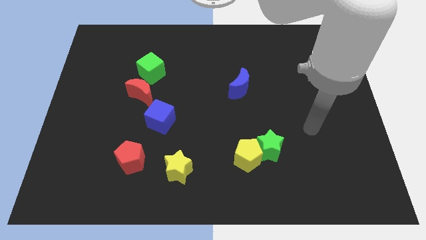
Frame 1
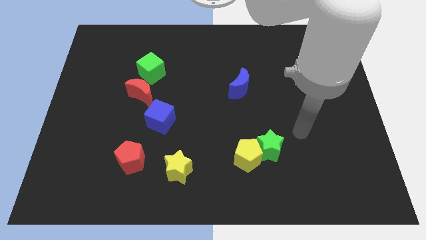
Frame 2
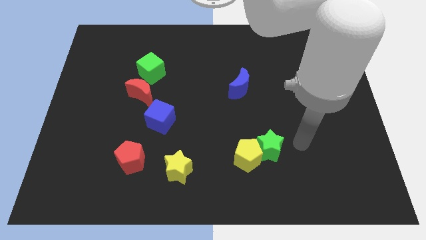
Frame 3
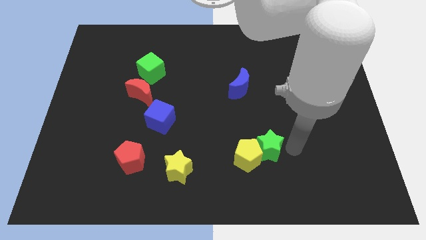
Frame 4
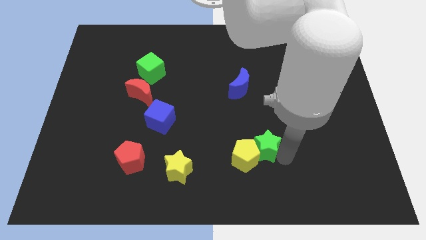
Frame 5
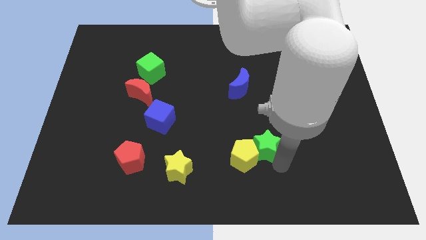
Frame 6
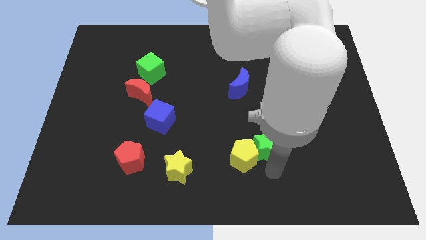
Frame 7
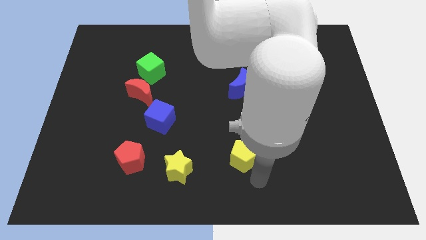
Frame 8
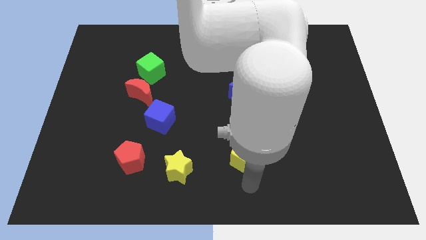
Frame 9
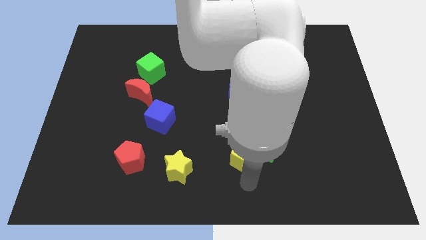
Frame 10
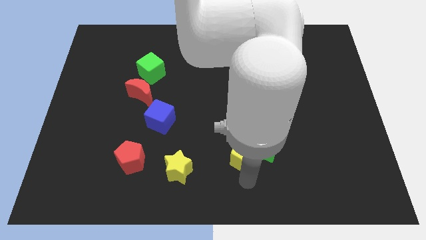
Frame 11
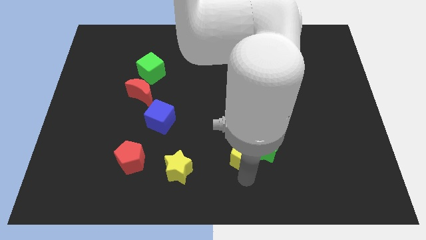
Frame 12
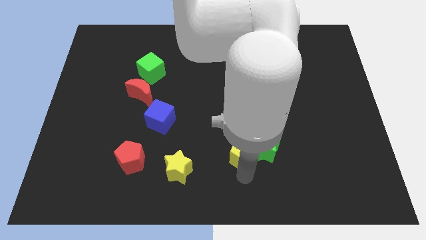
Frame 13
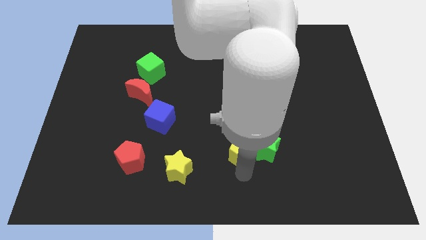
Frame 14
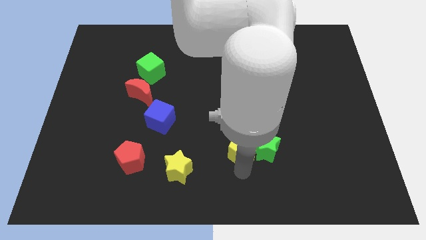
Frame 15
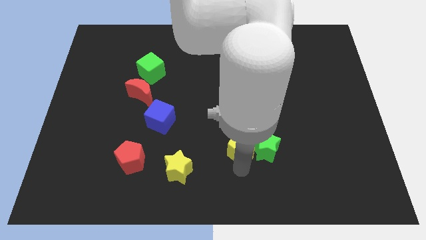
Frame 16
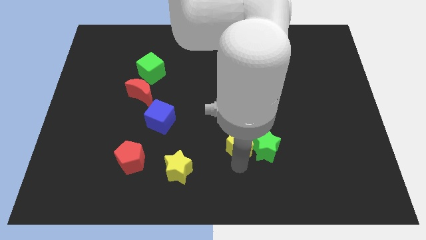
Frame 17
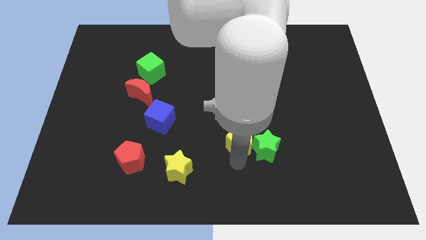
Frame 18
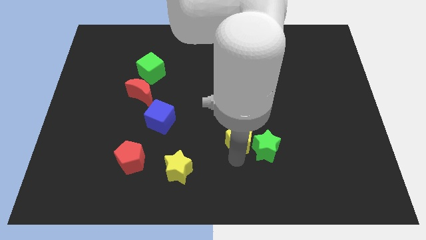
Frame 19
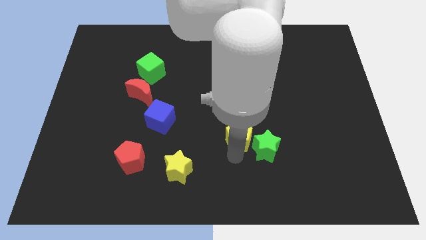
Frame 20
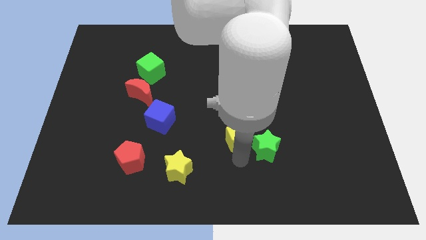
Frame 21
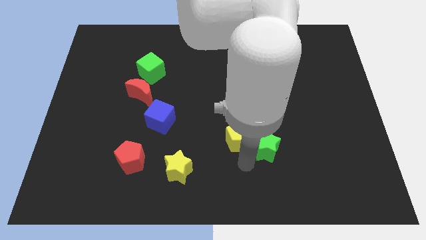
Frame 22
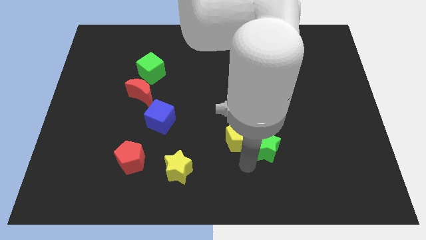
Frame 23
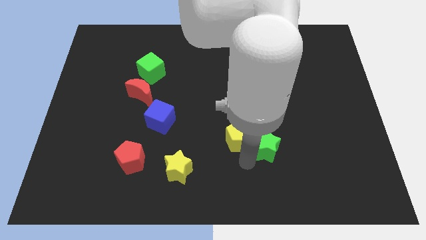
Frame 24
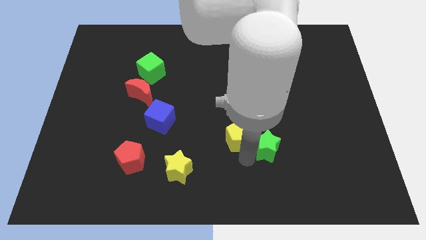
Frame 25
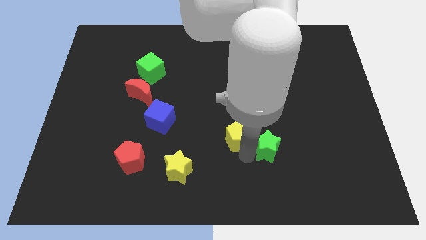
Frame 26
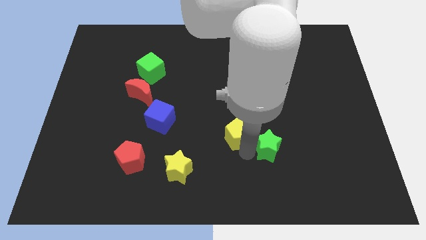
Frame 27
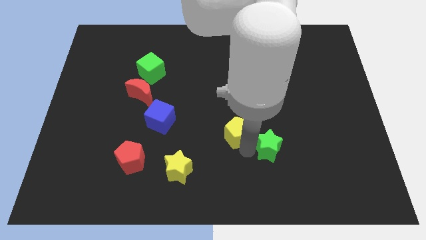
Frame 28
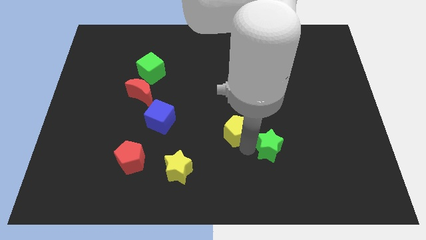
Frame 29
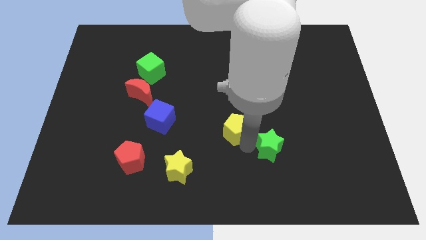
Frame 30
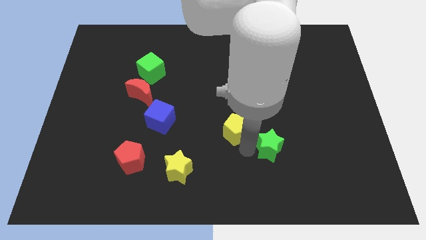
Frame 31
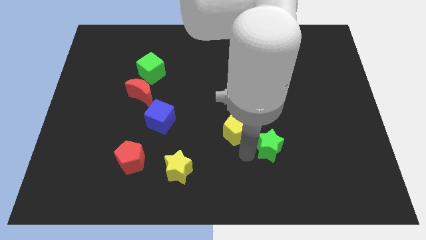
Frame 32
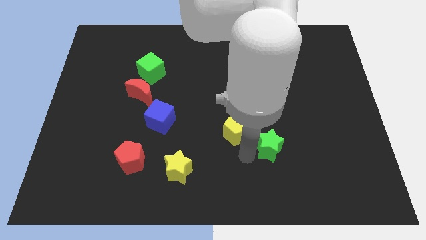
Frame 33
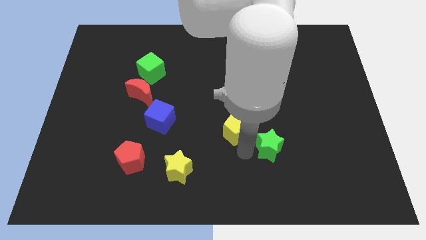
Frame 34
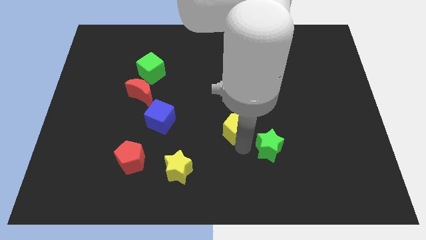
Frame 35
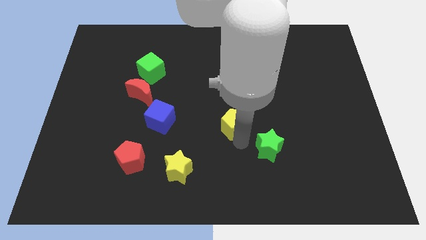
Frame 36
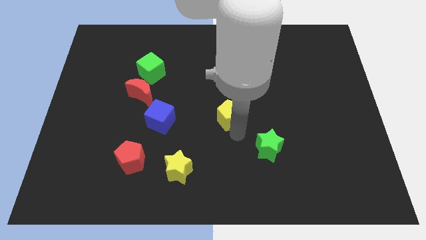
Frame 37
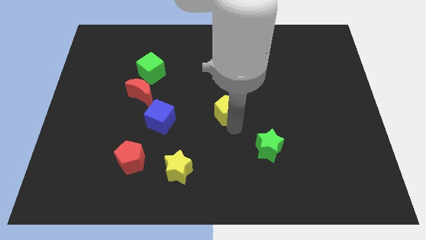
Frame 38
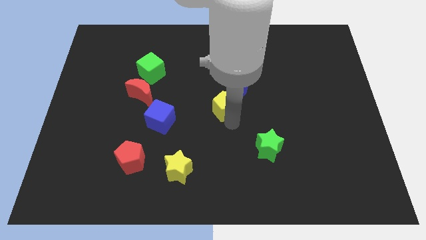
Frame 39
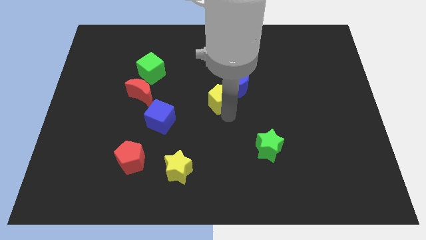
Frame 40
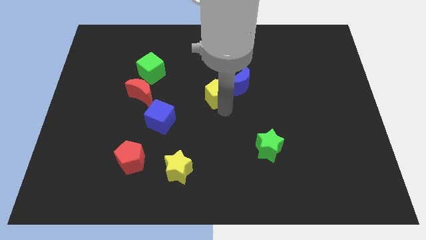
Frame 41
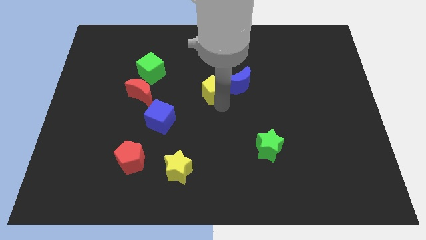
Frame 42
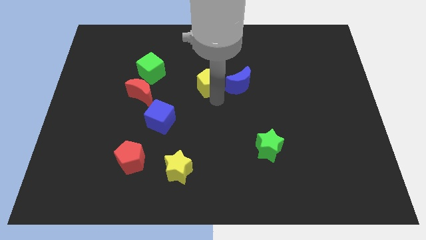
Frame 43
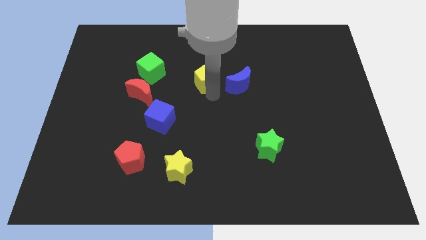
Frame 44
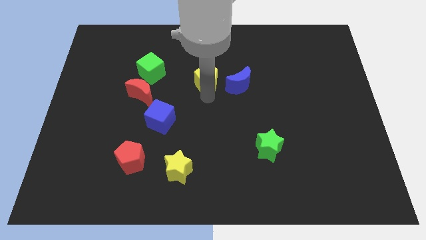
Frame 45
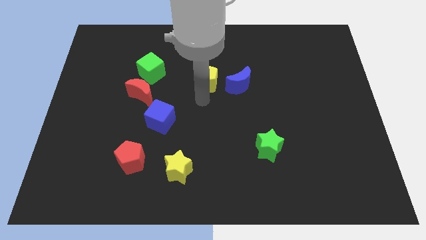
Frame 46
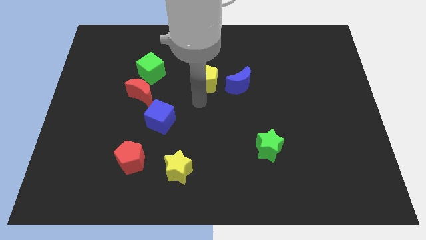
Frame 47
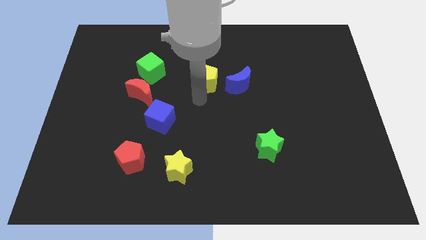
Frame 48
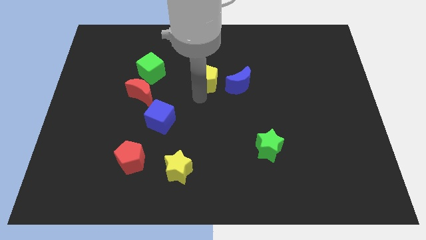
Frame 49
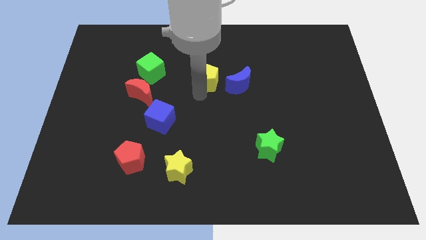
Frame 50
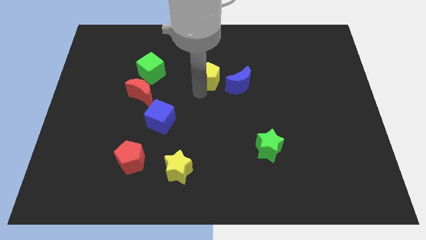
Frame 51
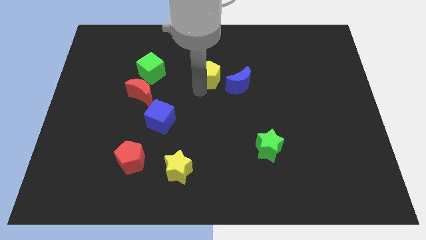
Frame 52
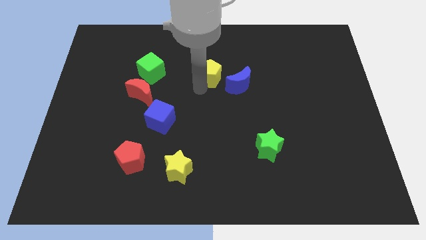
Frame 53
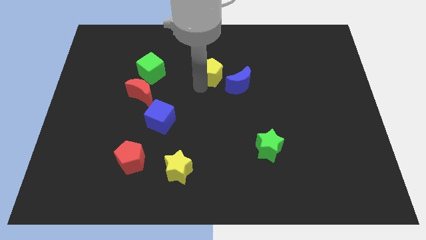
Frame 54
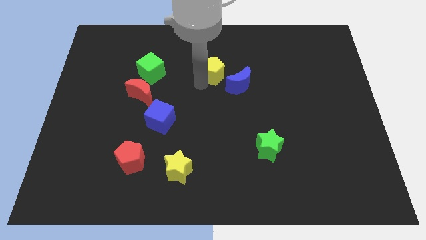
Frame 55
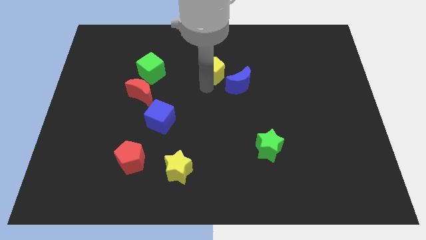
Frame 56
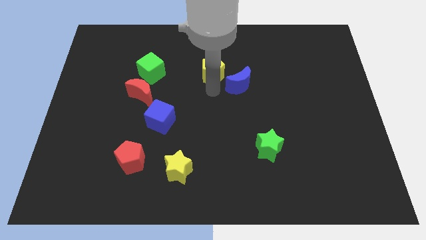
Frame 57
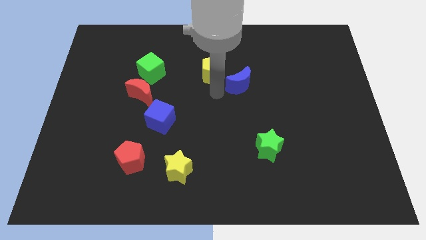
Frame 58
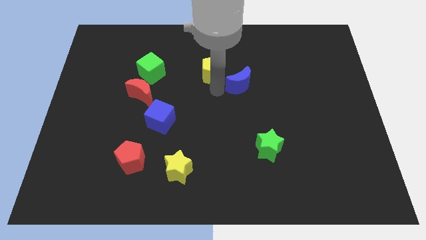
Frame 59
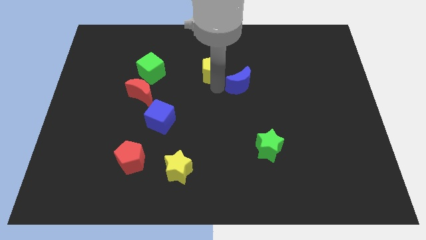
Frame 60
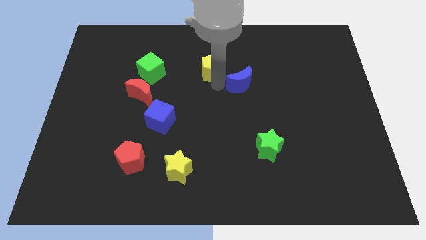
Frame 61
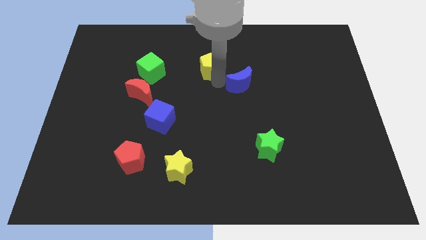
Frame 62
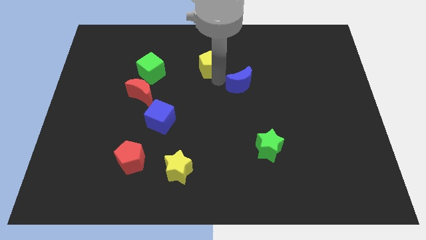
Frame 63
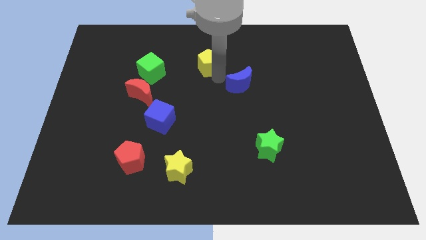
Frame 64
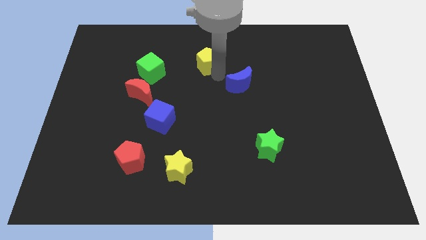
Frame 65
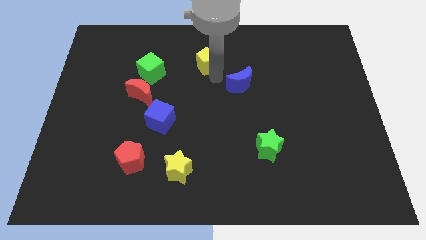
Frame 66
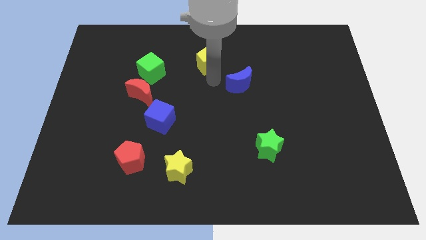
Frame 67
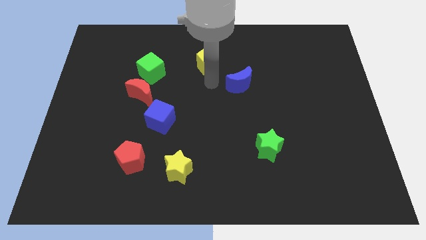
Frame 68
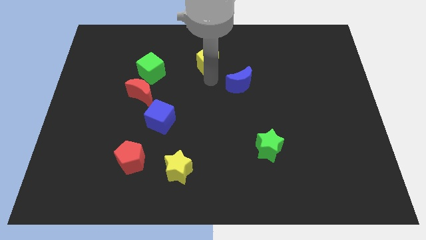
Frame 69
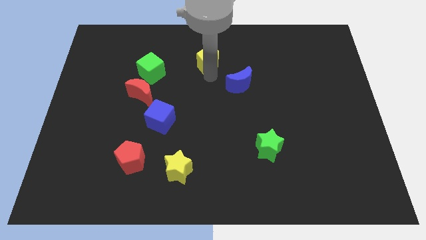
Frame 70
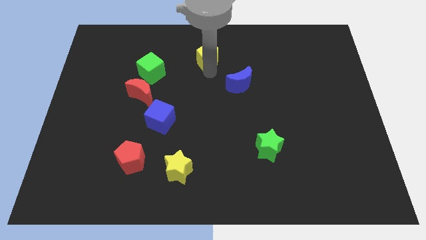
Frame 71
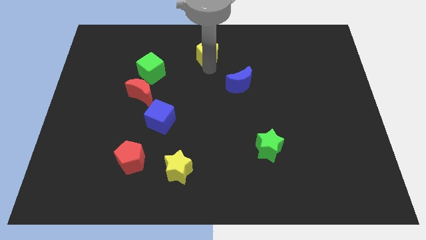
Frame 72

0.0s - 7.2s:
move the yellow pentagon to the top
